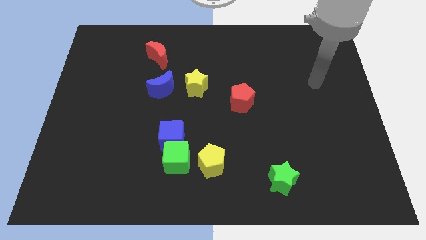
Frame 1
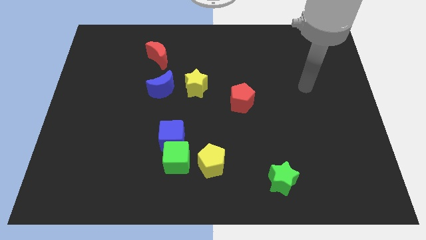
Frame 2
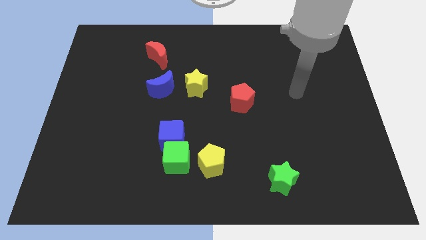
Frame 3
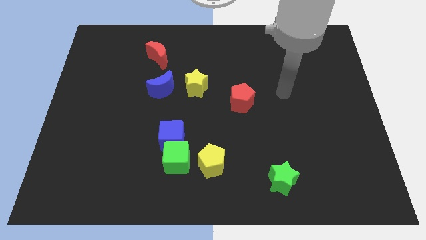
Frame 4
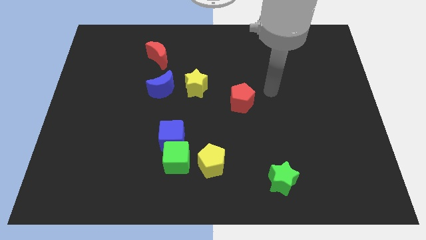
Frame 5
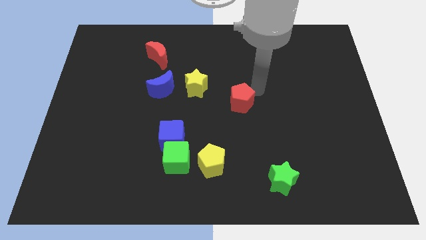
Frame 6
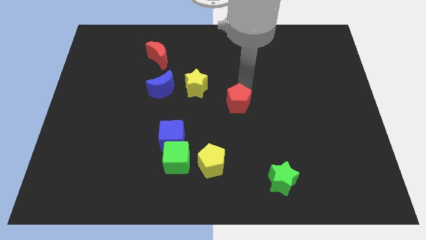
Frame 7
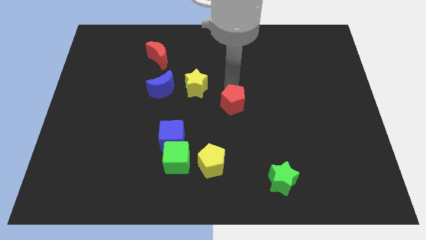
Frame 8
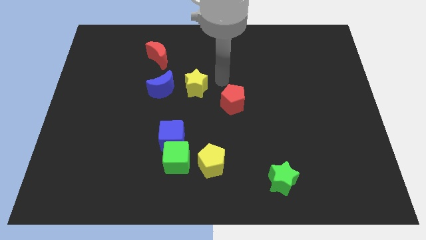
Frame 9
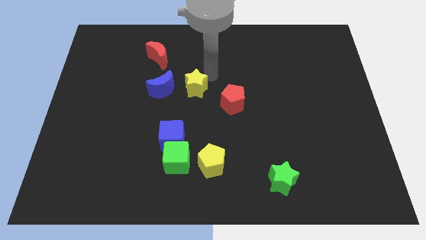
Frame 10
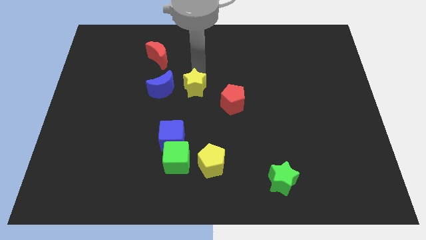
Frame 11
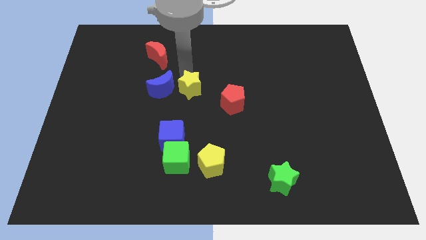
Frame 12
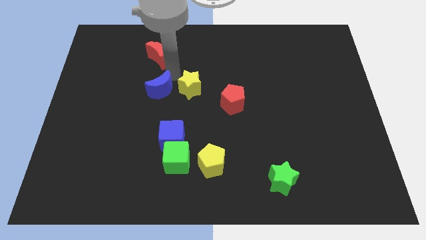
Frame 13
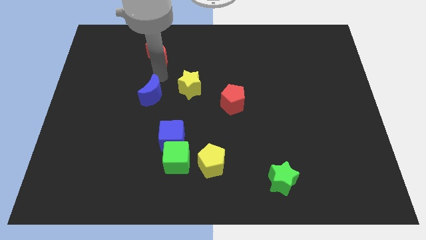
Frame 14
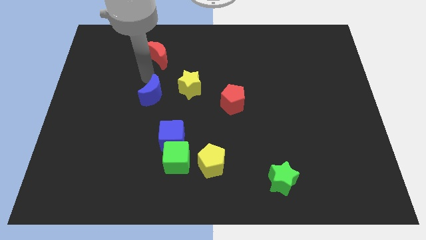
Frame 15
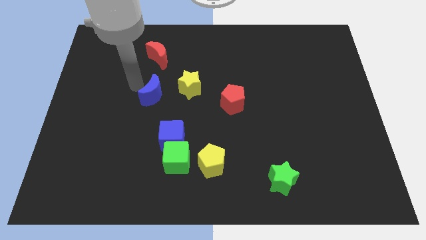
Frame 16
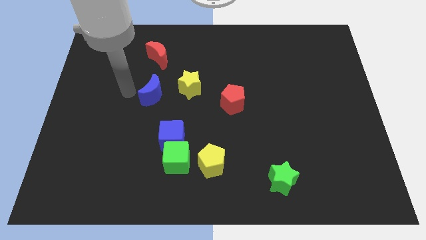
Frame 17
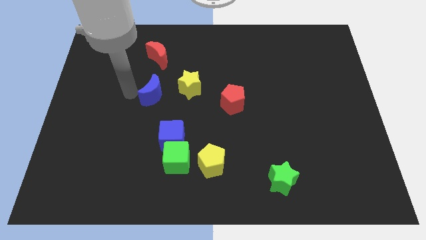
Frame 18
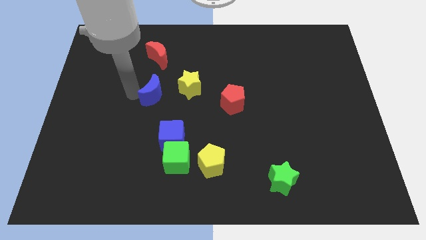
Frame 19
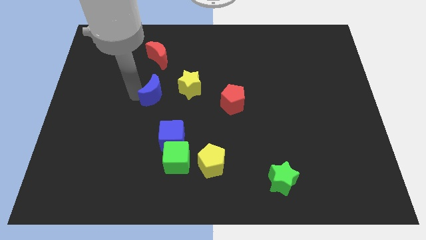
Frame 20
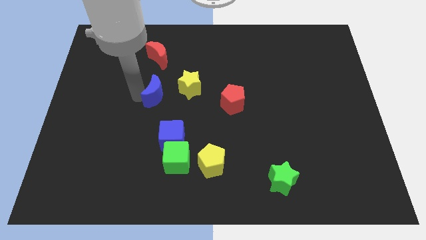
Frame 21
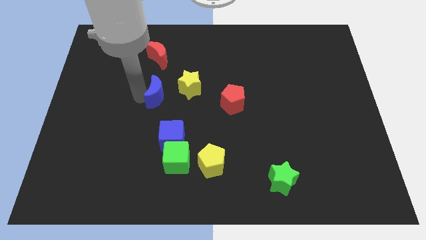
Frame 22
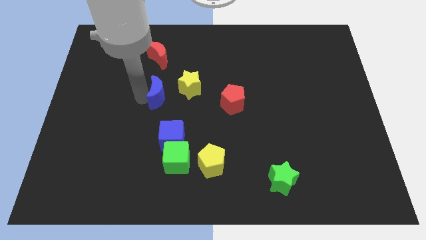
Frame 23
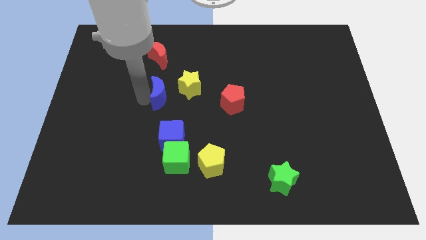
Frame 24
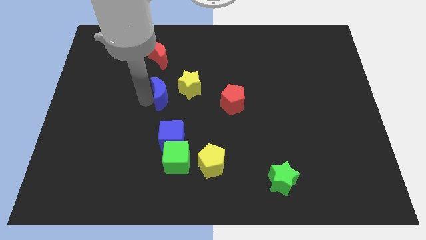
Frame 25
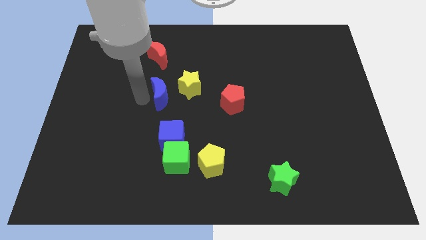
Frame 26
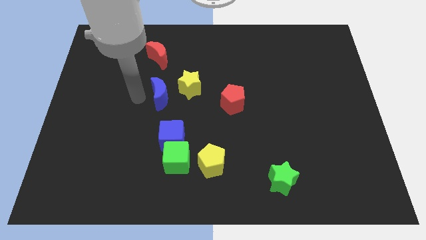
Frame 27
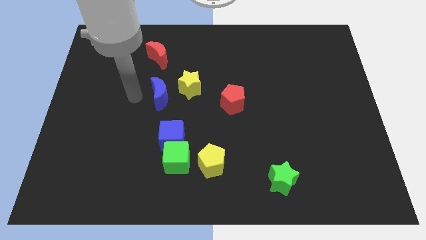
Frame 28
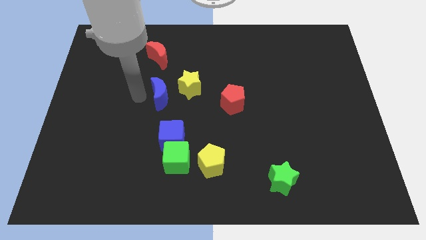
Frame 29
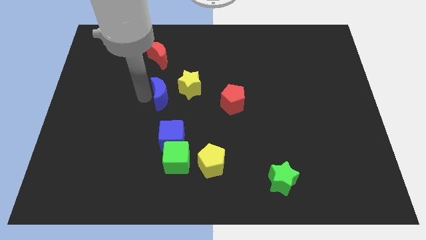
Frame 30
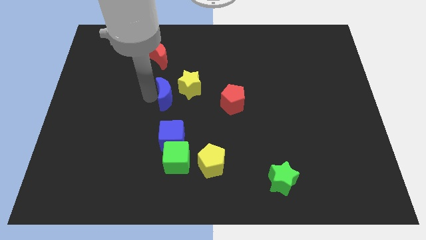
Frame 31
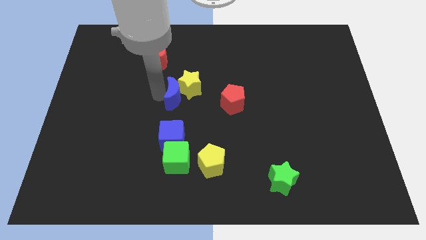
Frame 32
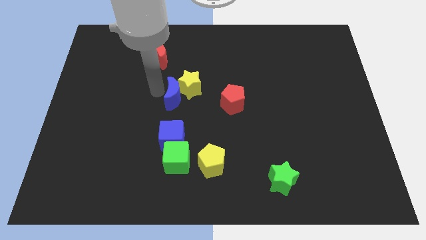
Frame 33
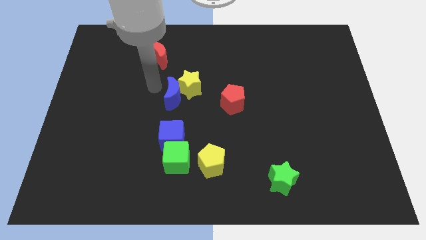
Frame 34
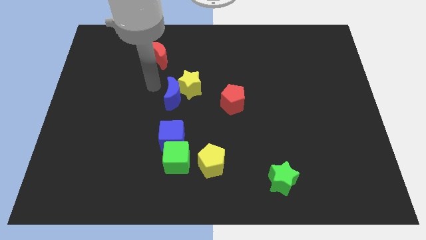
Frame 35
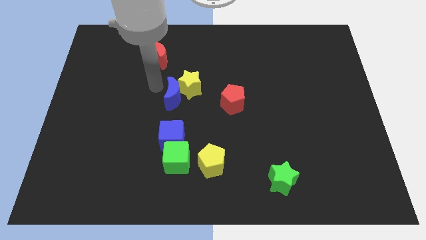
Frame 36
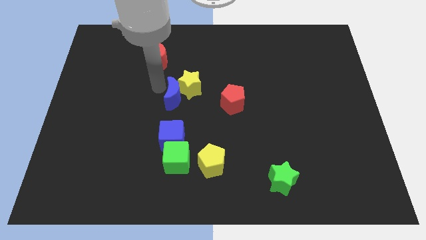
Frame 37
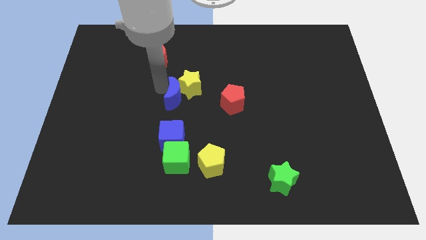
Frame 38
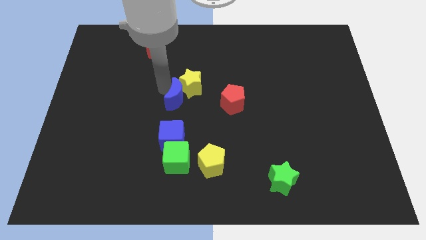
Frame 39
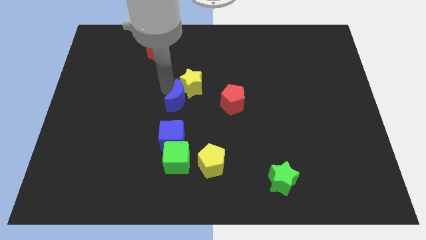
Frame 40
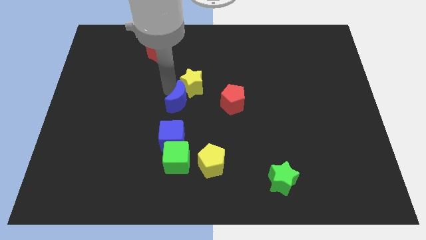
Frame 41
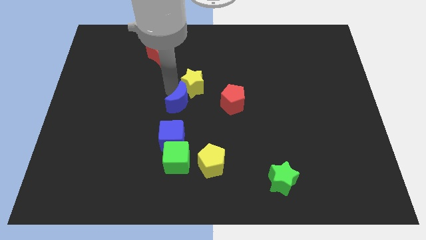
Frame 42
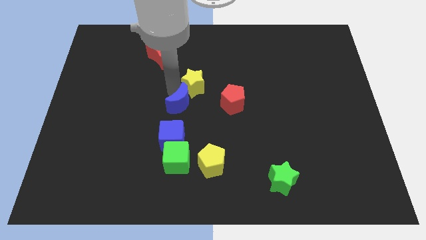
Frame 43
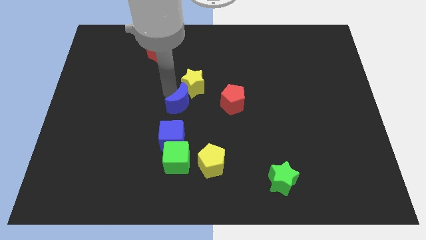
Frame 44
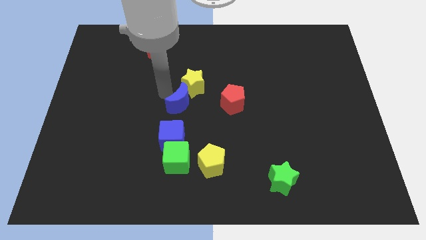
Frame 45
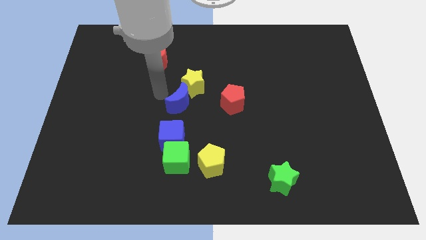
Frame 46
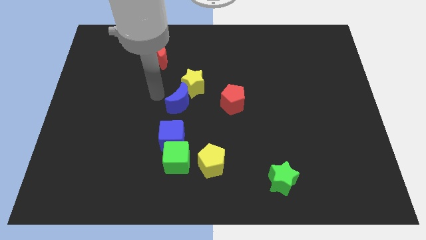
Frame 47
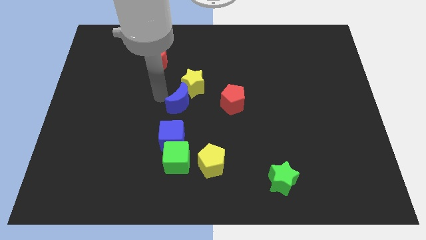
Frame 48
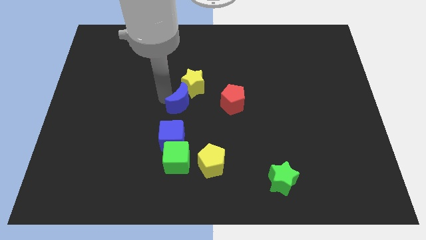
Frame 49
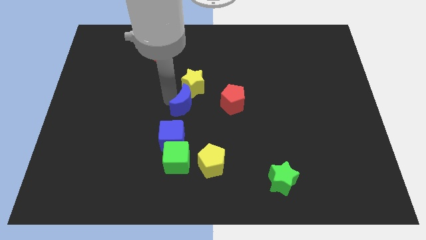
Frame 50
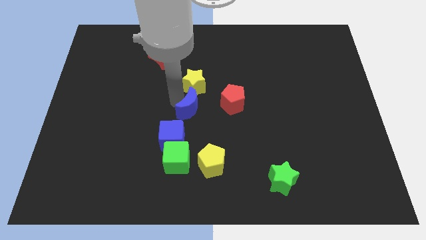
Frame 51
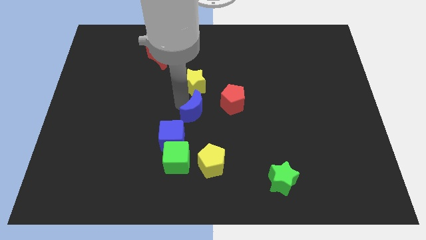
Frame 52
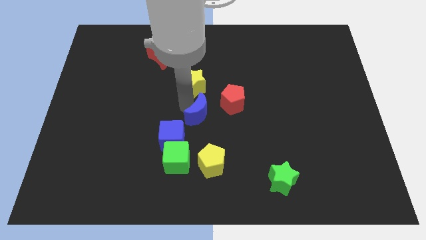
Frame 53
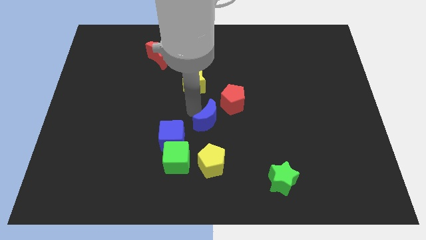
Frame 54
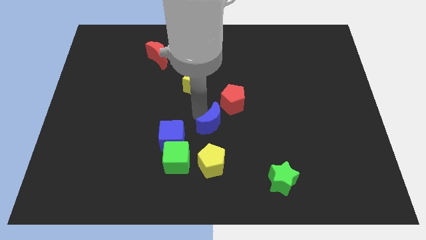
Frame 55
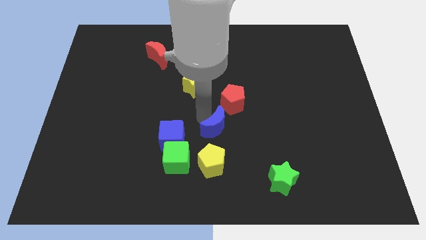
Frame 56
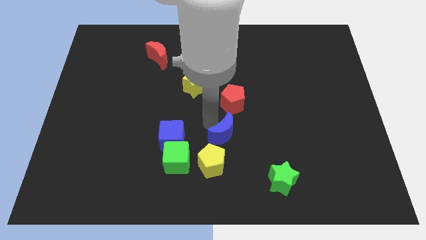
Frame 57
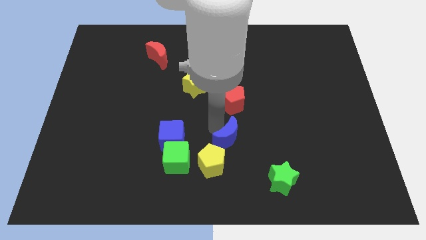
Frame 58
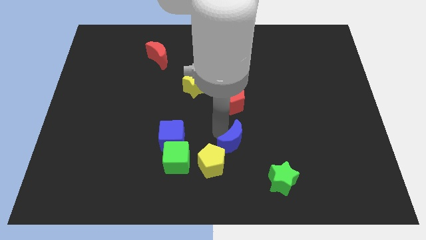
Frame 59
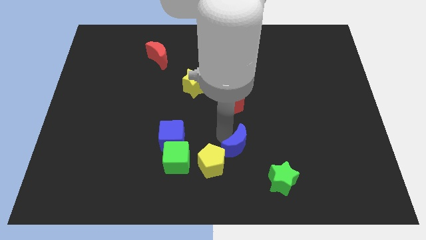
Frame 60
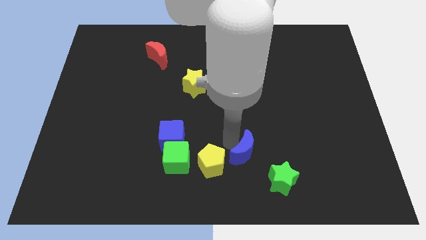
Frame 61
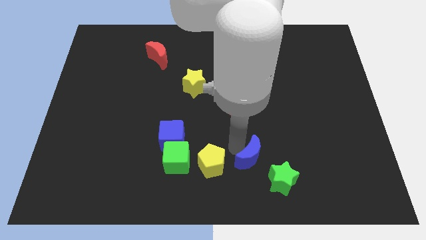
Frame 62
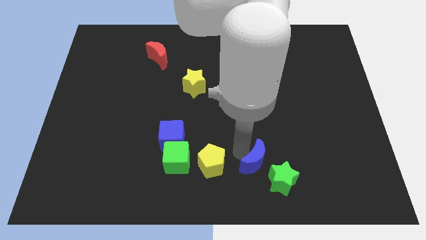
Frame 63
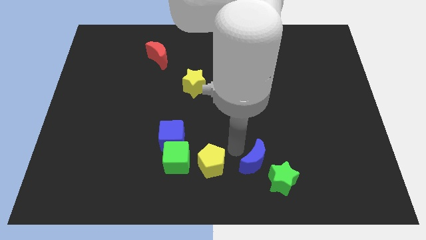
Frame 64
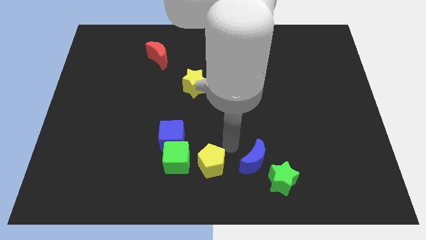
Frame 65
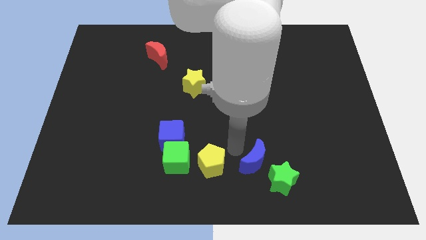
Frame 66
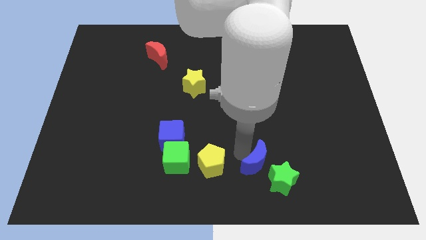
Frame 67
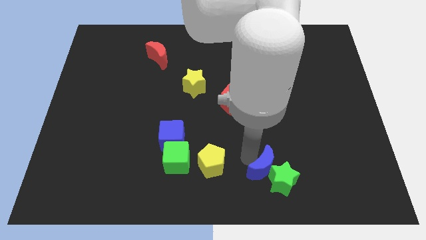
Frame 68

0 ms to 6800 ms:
push the blue moon to the green star
